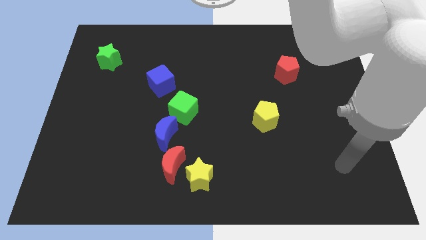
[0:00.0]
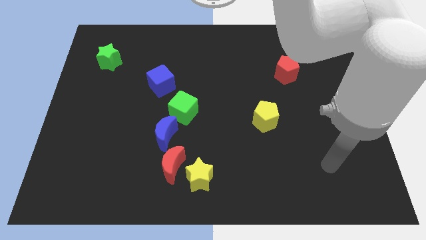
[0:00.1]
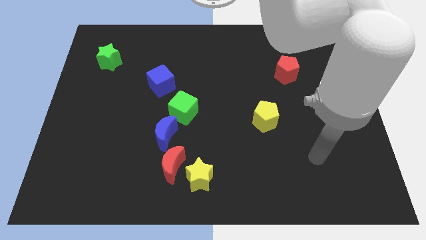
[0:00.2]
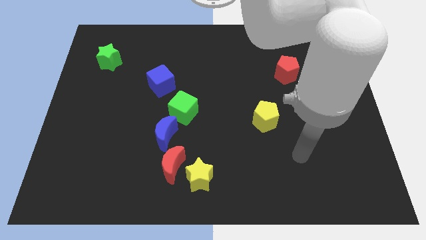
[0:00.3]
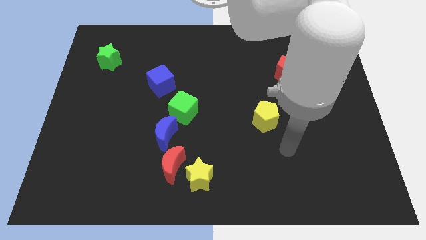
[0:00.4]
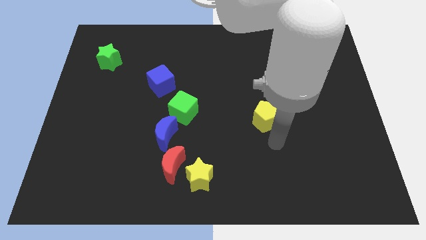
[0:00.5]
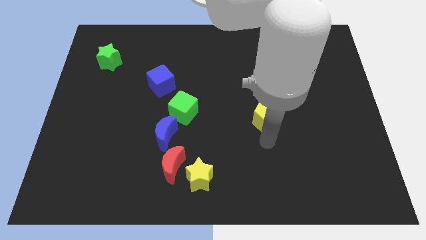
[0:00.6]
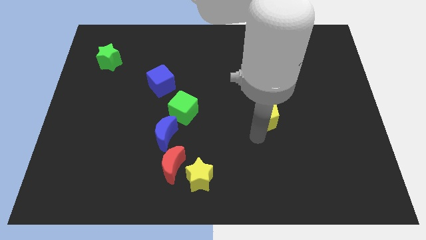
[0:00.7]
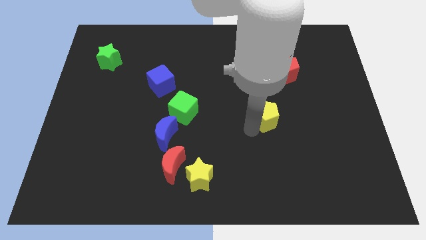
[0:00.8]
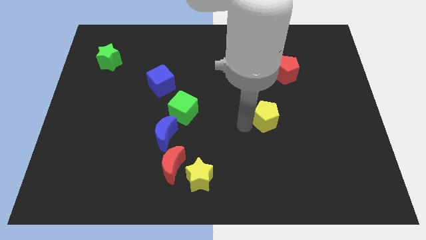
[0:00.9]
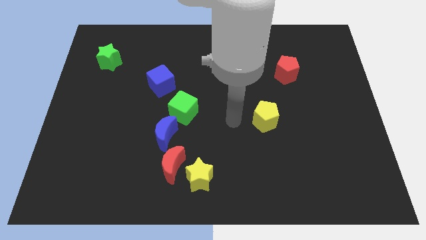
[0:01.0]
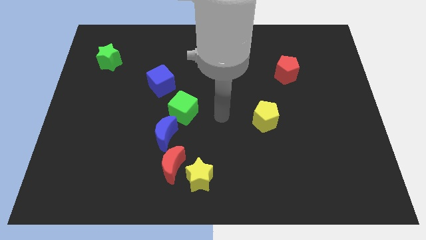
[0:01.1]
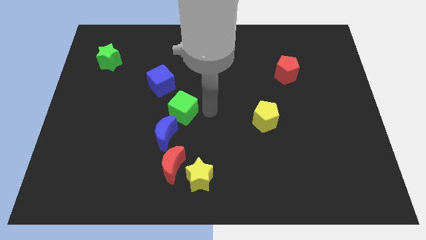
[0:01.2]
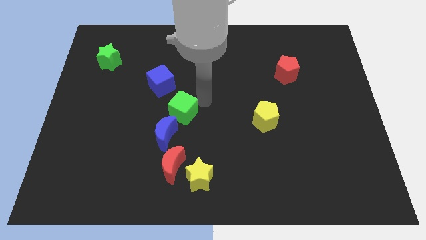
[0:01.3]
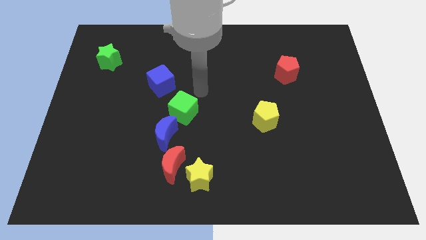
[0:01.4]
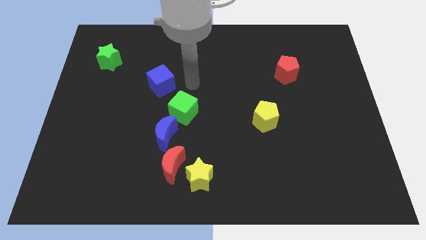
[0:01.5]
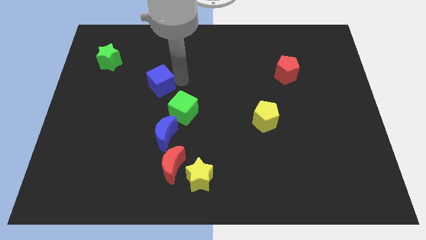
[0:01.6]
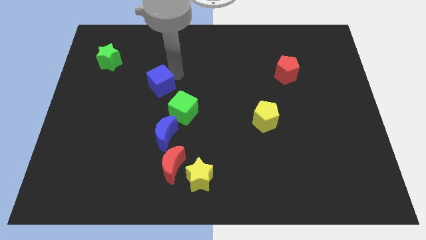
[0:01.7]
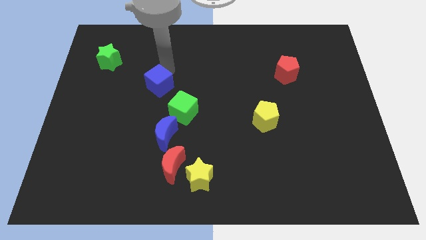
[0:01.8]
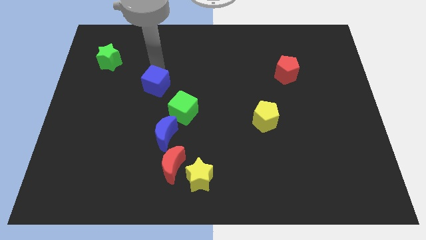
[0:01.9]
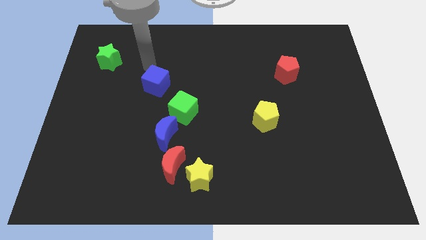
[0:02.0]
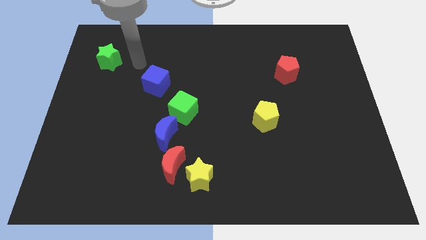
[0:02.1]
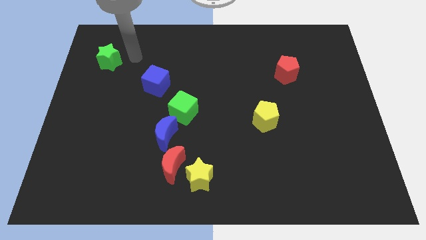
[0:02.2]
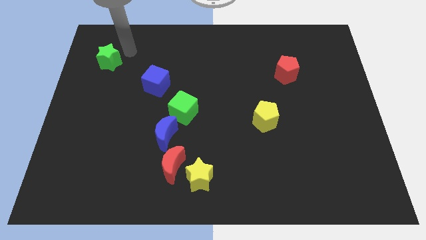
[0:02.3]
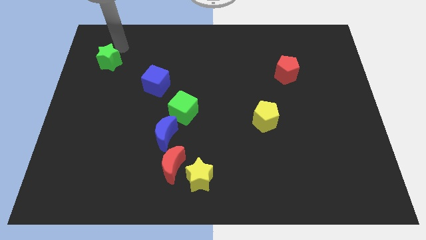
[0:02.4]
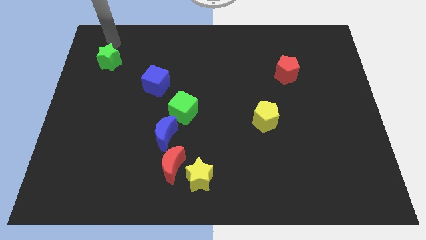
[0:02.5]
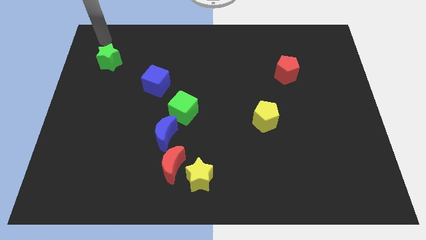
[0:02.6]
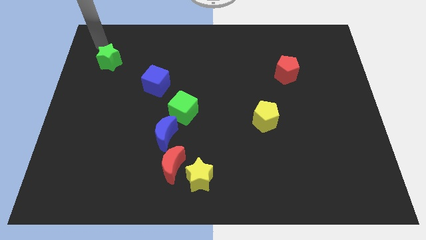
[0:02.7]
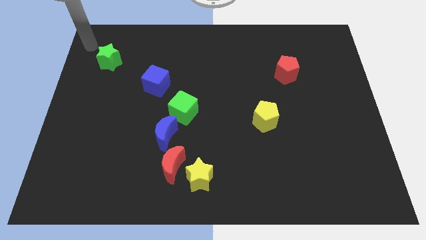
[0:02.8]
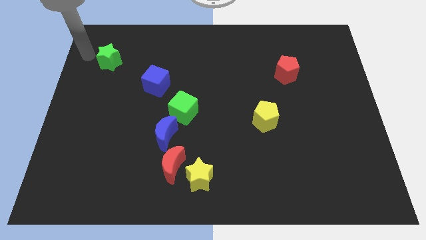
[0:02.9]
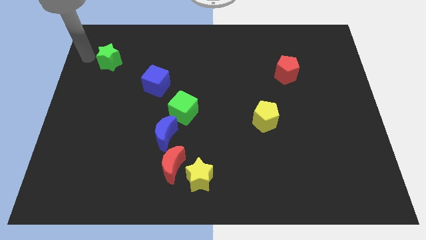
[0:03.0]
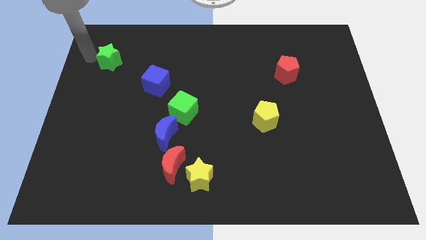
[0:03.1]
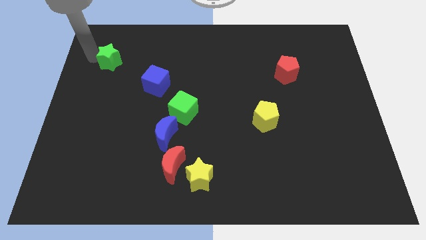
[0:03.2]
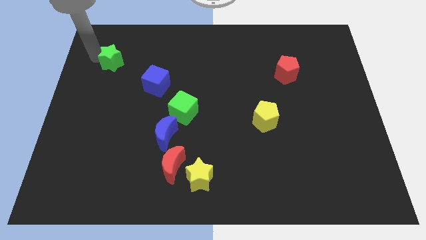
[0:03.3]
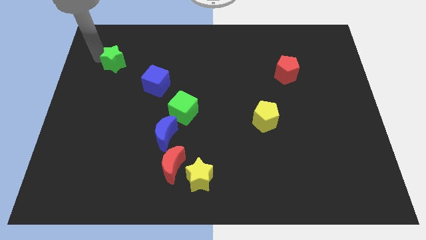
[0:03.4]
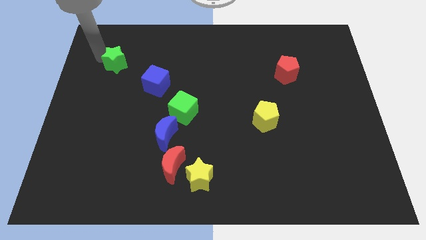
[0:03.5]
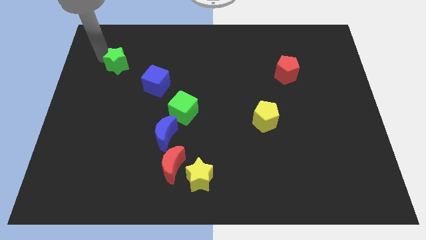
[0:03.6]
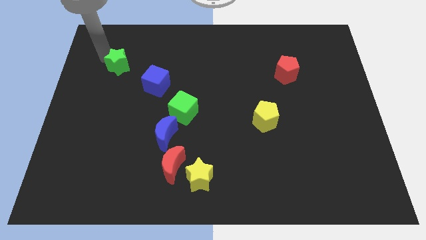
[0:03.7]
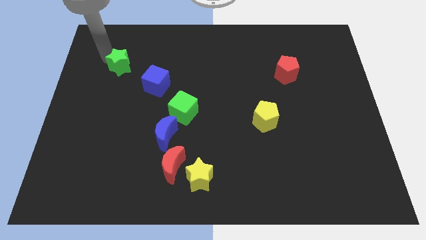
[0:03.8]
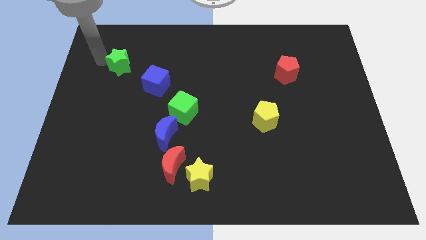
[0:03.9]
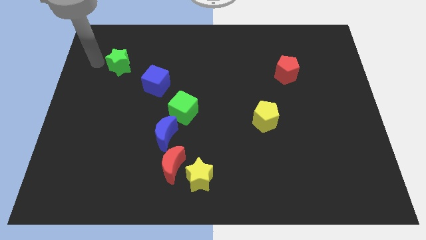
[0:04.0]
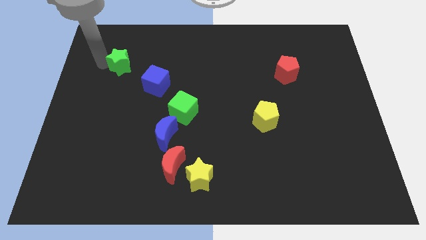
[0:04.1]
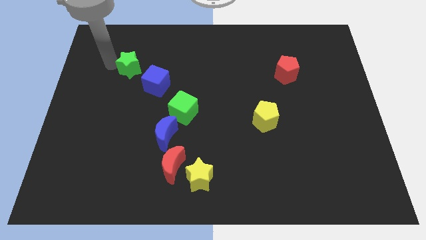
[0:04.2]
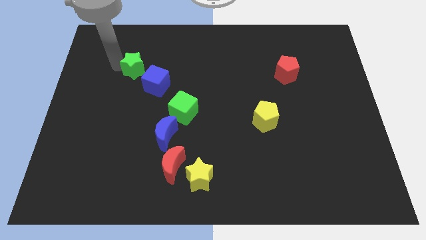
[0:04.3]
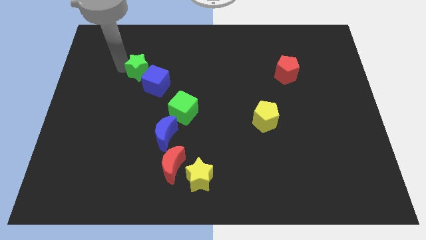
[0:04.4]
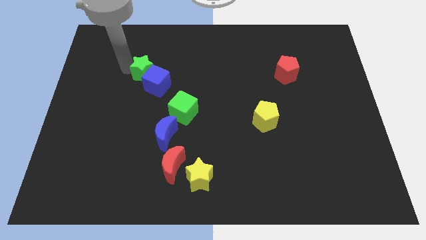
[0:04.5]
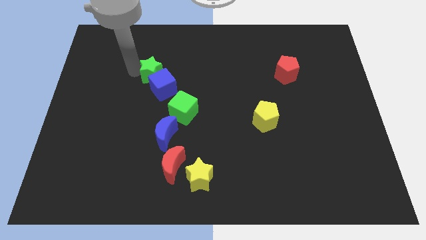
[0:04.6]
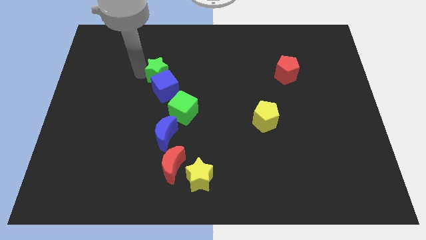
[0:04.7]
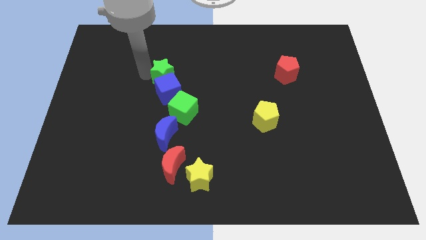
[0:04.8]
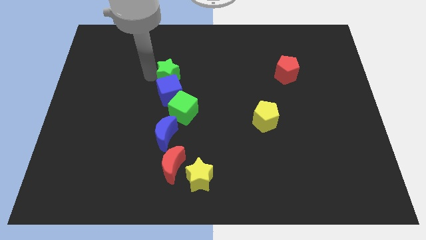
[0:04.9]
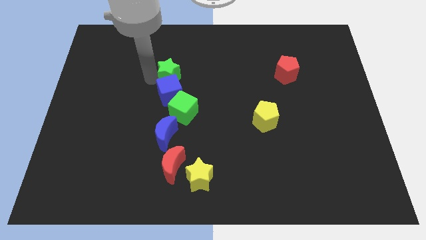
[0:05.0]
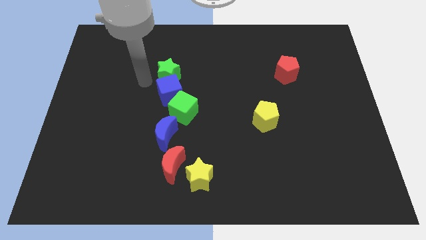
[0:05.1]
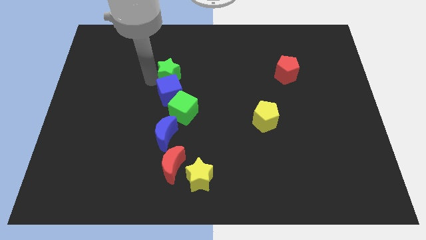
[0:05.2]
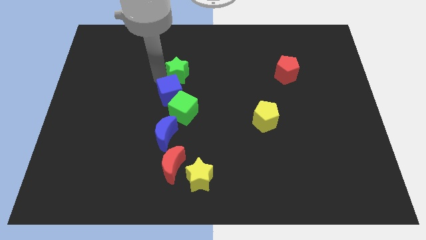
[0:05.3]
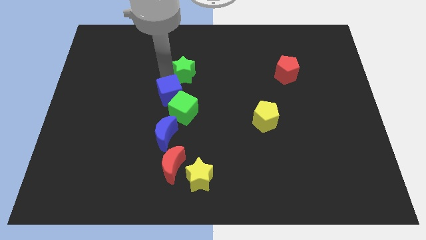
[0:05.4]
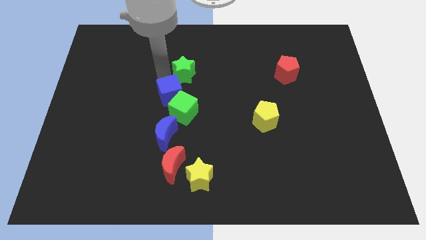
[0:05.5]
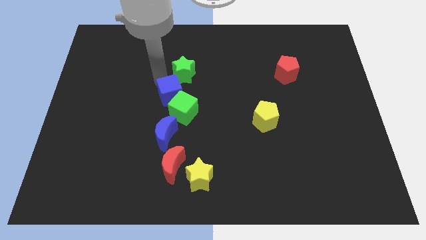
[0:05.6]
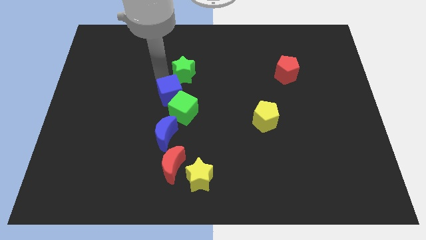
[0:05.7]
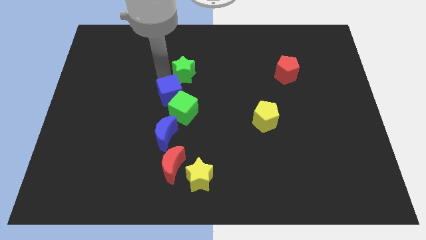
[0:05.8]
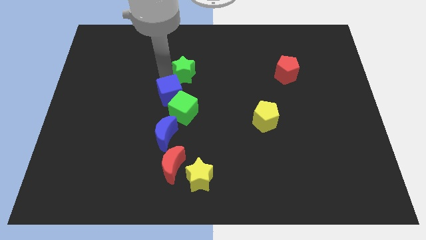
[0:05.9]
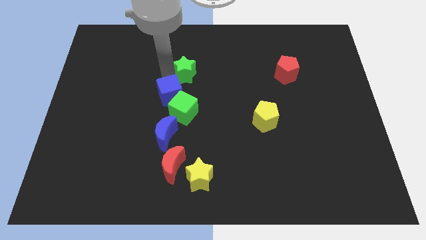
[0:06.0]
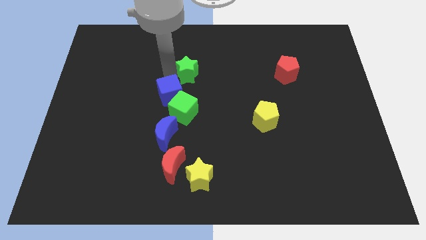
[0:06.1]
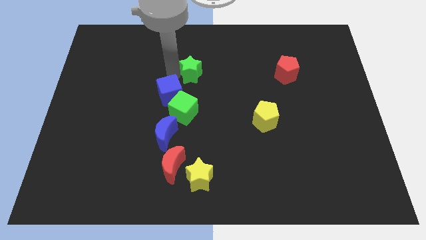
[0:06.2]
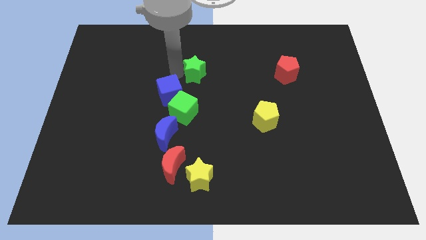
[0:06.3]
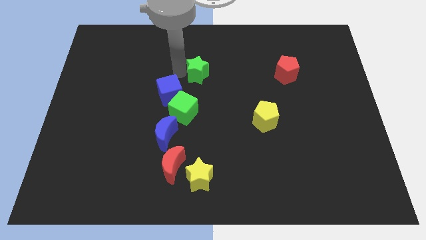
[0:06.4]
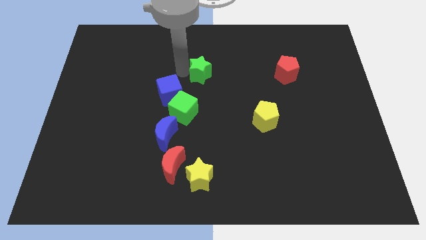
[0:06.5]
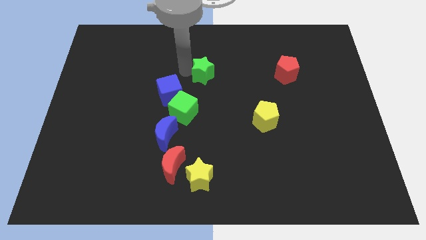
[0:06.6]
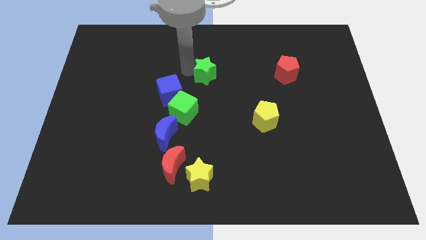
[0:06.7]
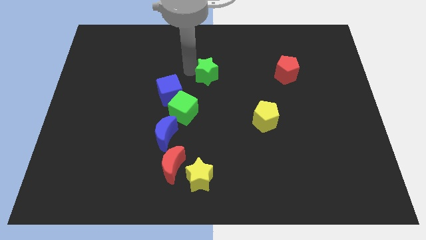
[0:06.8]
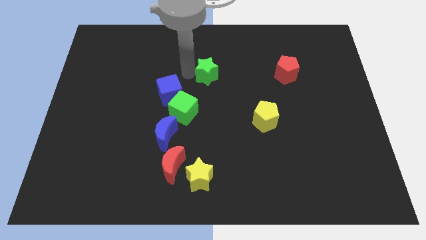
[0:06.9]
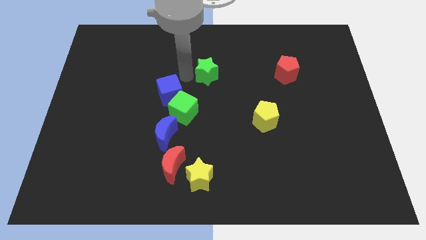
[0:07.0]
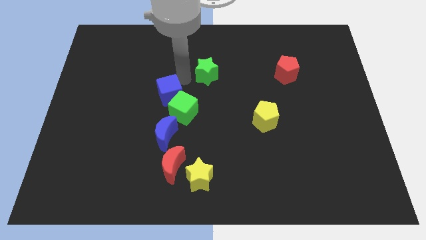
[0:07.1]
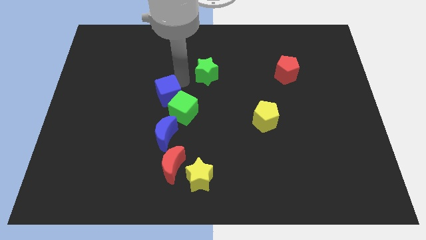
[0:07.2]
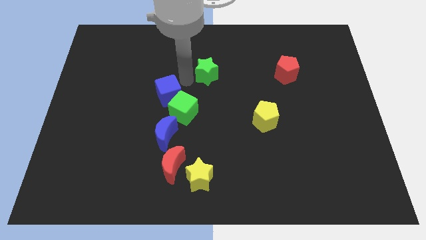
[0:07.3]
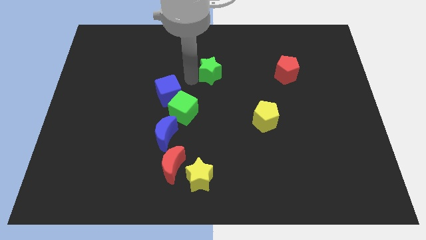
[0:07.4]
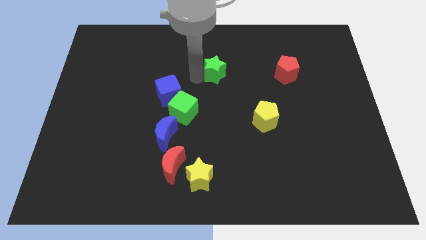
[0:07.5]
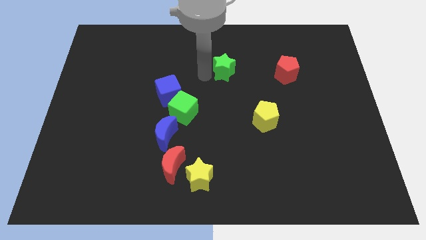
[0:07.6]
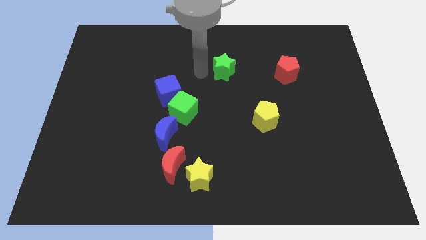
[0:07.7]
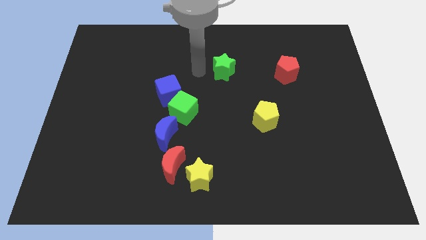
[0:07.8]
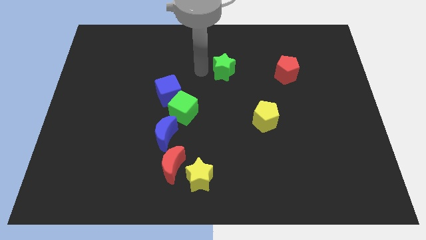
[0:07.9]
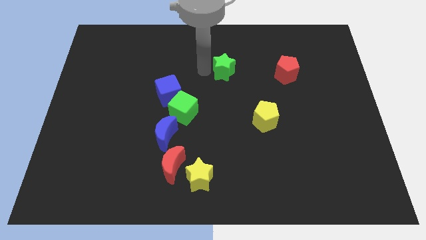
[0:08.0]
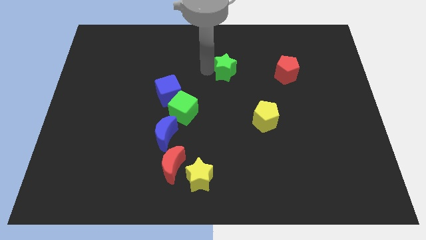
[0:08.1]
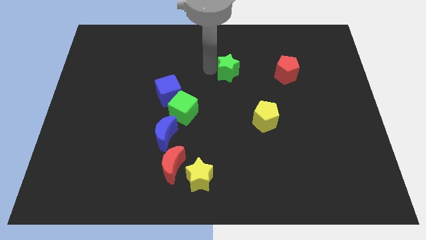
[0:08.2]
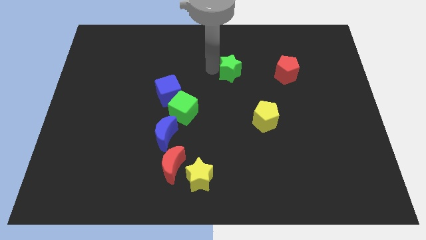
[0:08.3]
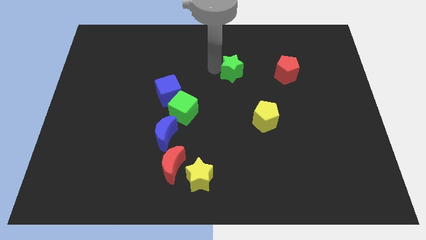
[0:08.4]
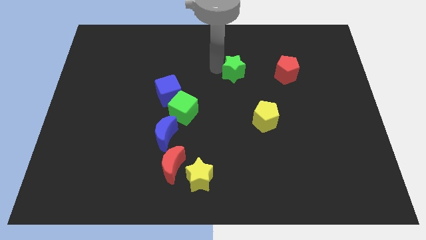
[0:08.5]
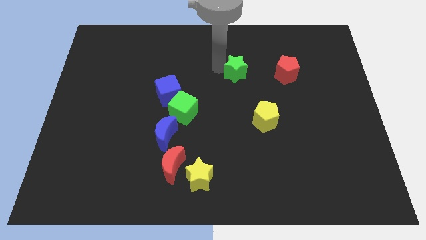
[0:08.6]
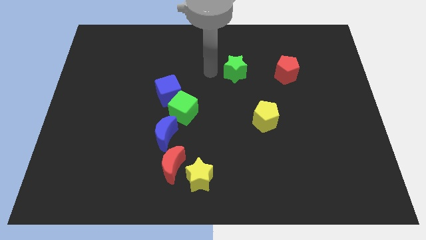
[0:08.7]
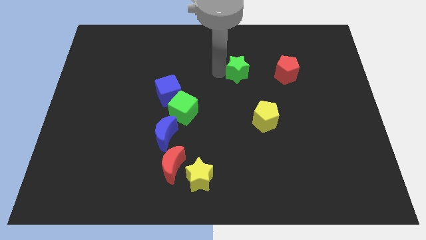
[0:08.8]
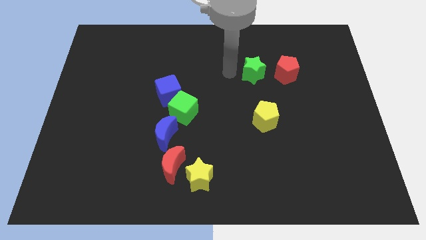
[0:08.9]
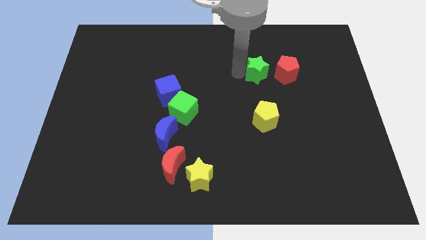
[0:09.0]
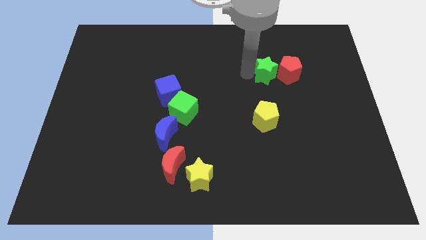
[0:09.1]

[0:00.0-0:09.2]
slide the green star next to the red pentagon
